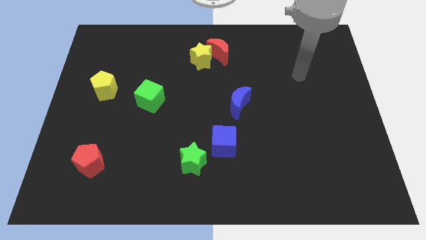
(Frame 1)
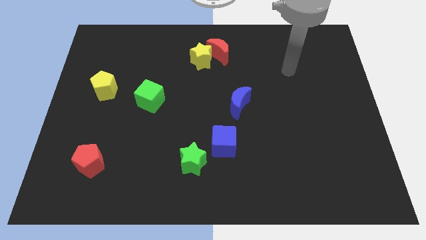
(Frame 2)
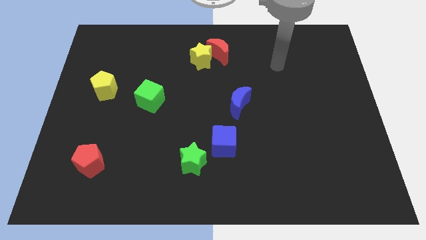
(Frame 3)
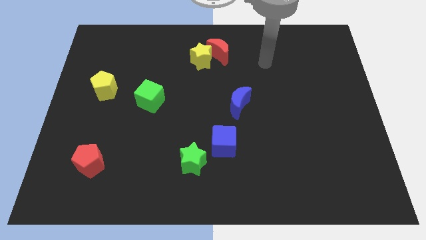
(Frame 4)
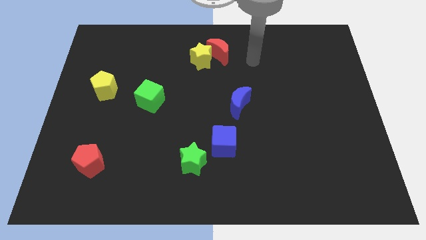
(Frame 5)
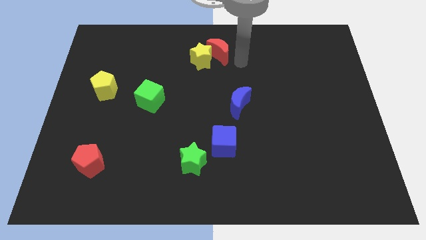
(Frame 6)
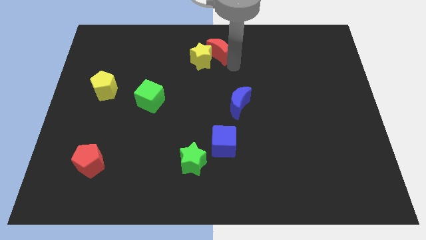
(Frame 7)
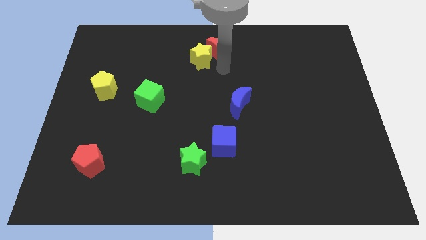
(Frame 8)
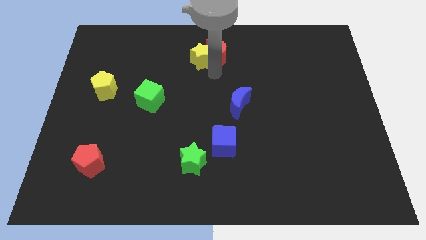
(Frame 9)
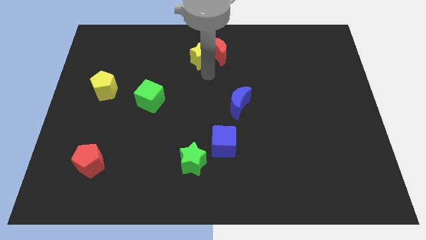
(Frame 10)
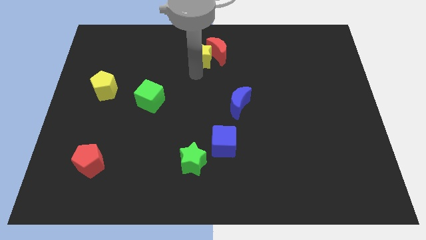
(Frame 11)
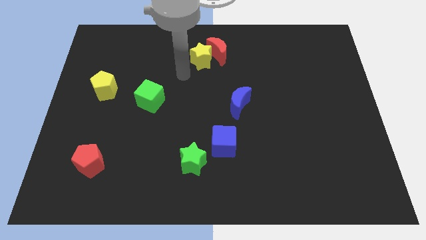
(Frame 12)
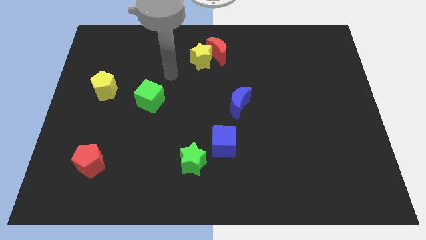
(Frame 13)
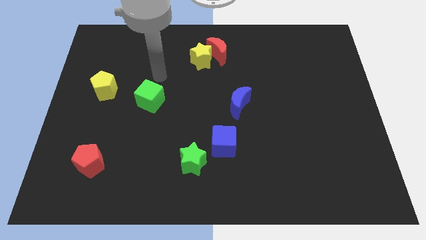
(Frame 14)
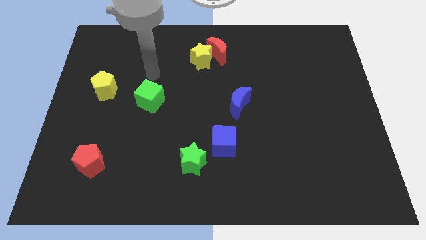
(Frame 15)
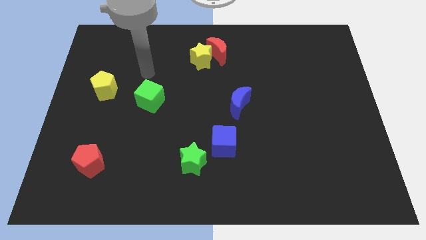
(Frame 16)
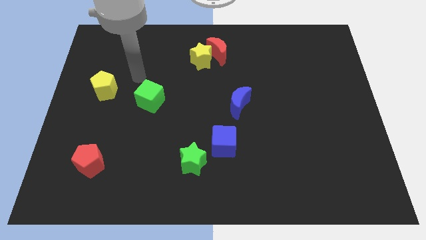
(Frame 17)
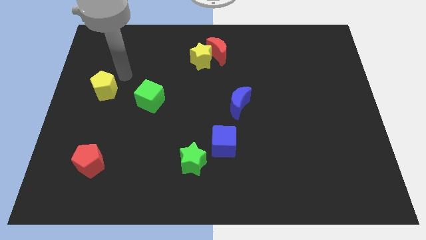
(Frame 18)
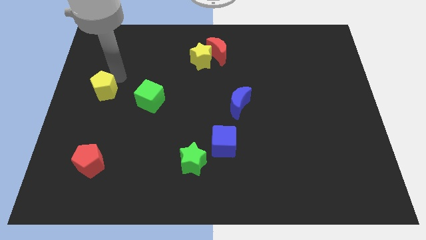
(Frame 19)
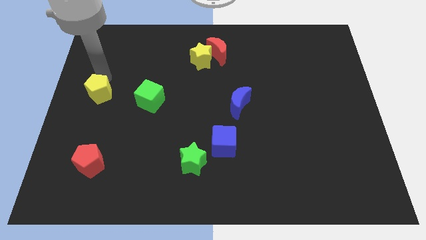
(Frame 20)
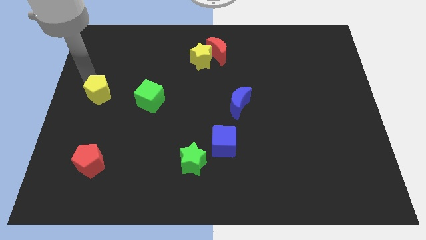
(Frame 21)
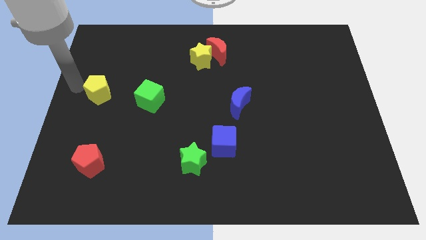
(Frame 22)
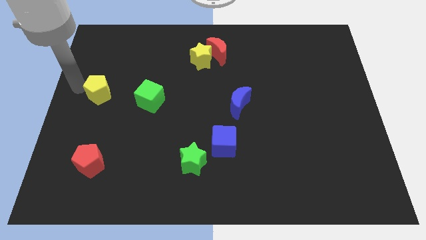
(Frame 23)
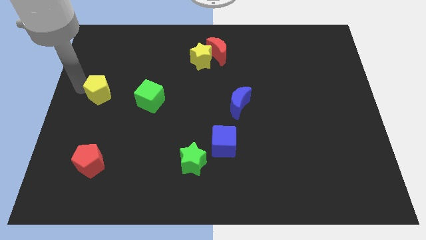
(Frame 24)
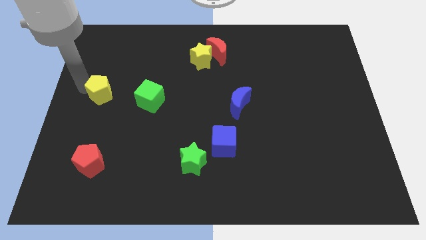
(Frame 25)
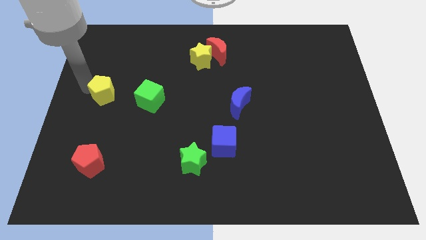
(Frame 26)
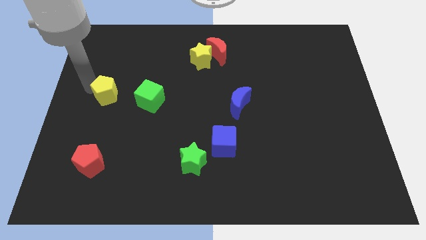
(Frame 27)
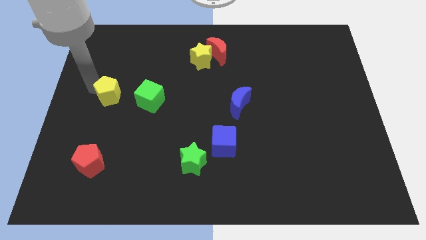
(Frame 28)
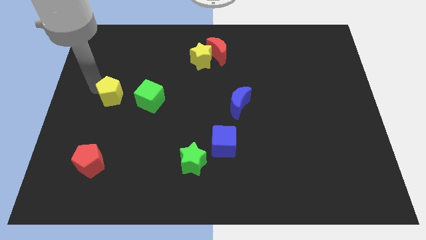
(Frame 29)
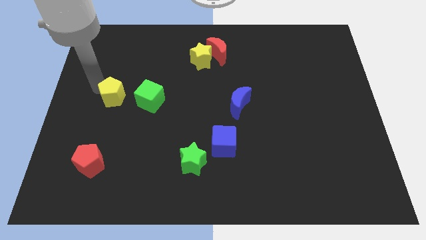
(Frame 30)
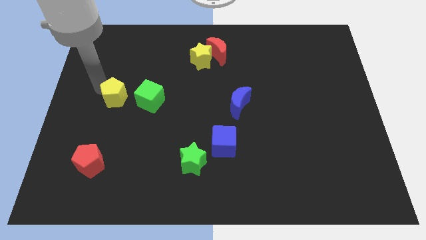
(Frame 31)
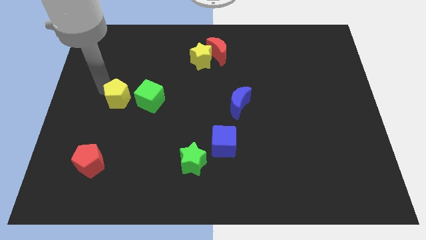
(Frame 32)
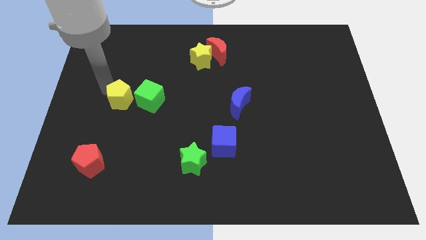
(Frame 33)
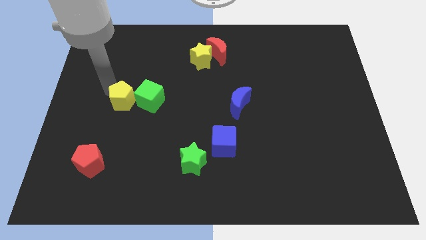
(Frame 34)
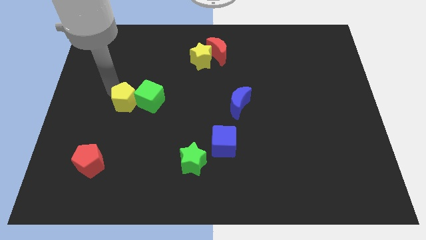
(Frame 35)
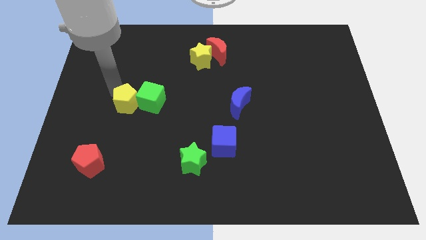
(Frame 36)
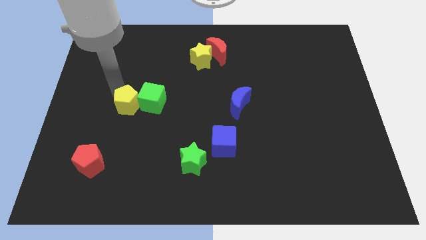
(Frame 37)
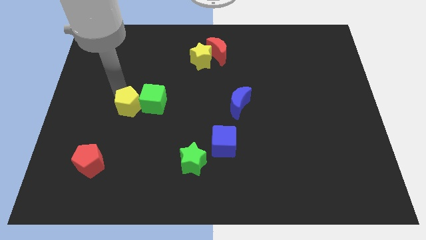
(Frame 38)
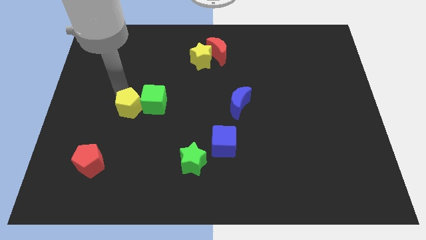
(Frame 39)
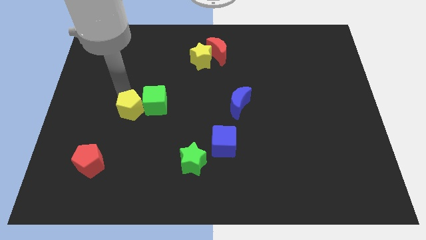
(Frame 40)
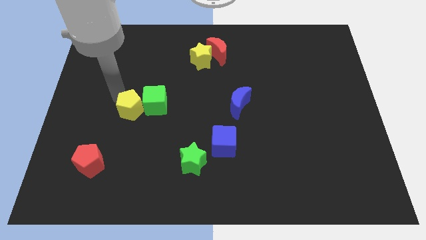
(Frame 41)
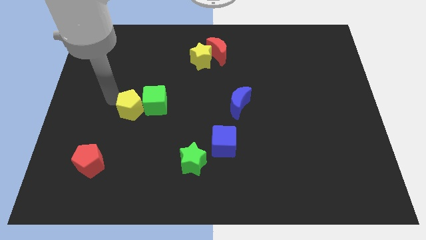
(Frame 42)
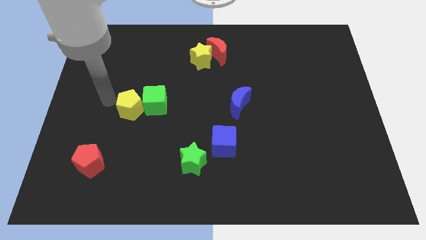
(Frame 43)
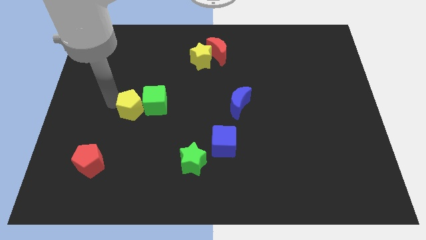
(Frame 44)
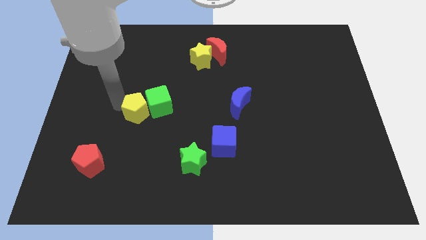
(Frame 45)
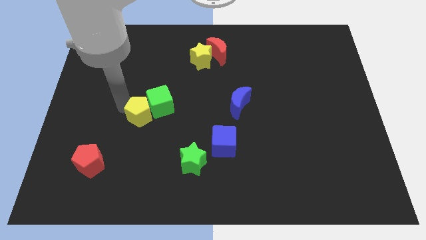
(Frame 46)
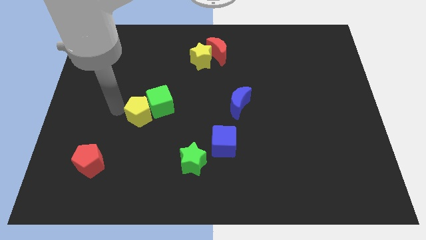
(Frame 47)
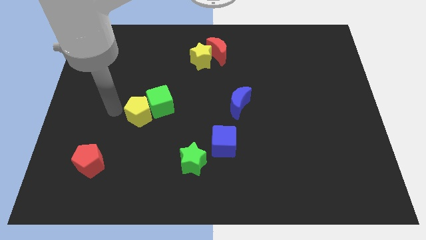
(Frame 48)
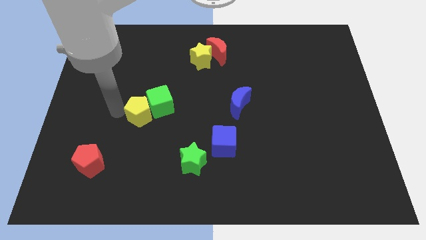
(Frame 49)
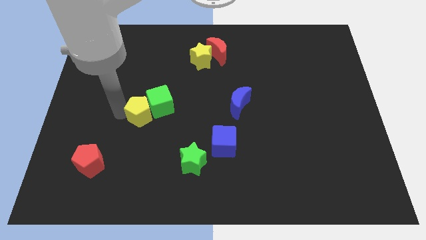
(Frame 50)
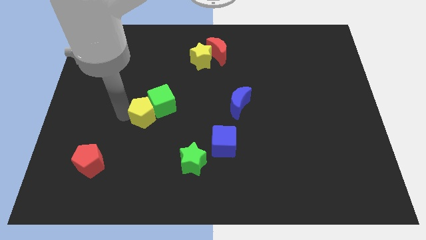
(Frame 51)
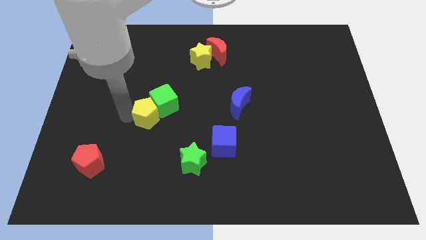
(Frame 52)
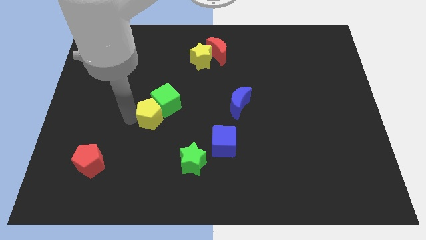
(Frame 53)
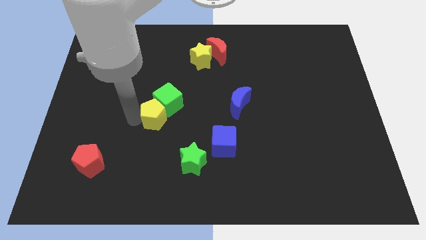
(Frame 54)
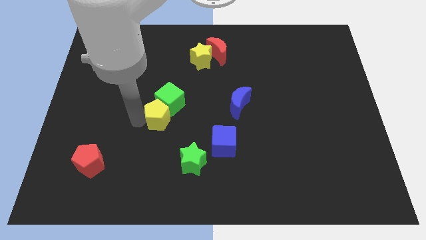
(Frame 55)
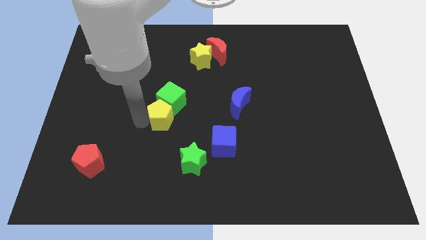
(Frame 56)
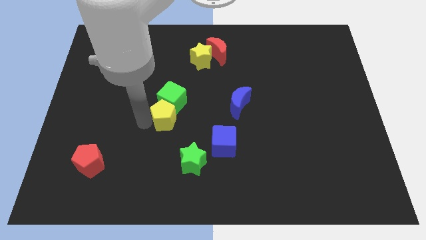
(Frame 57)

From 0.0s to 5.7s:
move the yellow pentagon to the bottom right of the green cube

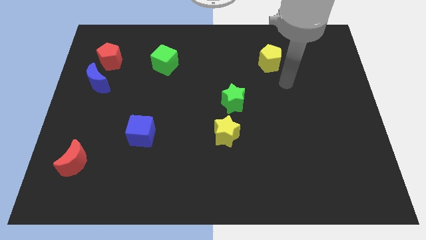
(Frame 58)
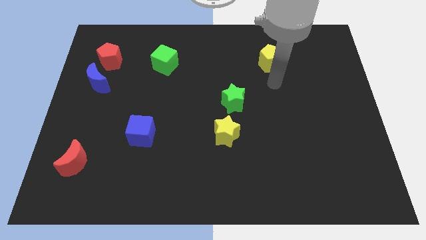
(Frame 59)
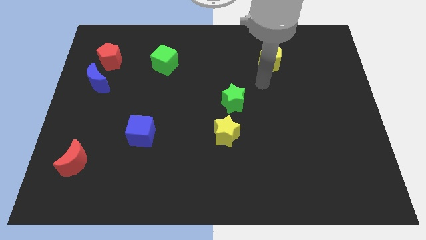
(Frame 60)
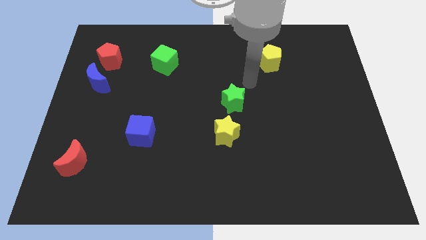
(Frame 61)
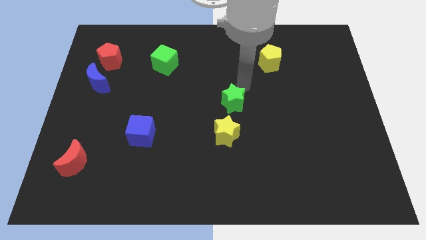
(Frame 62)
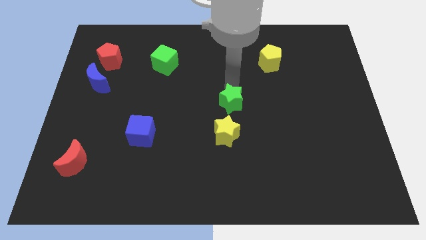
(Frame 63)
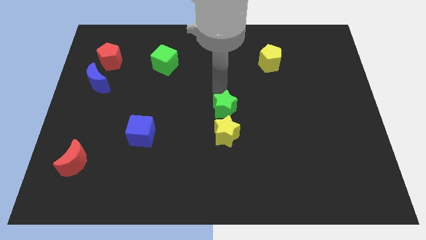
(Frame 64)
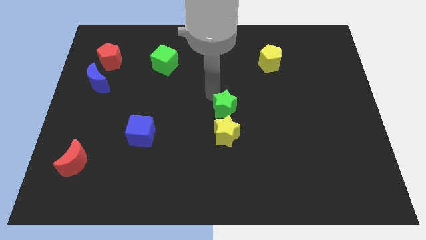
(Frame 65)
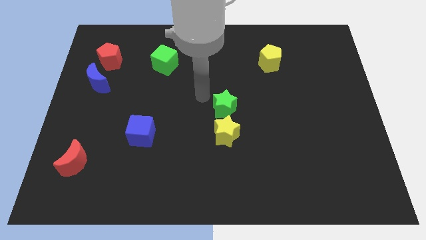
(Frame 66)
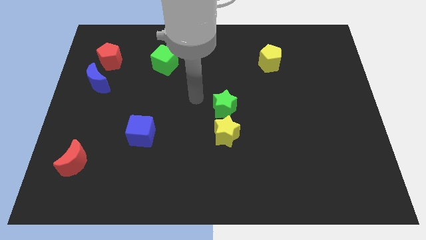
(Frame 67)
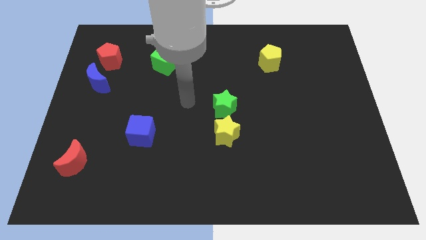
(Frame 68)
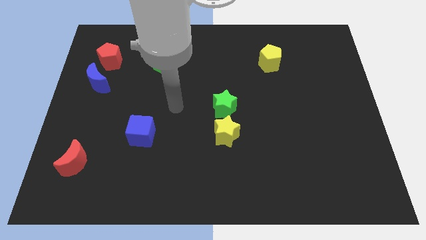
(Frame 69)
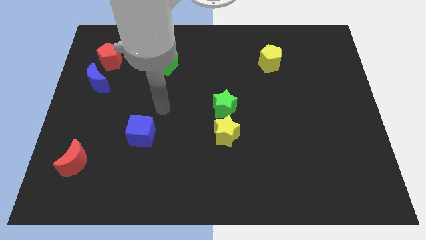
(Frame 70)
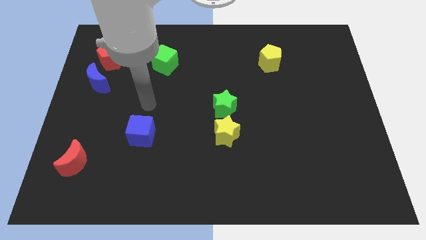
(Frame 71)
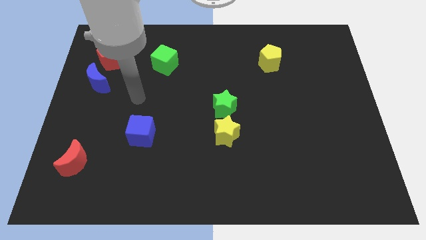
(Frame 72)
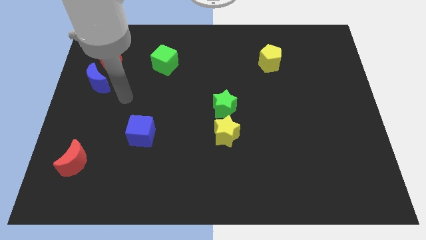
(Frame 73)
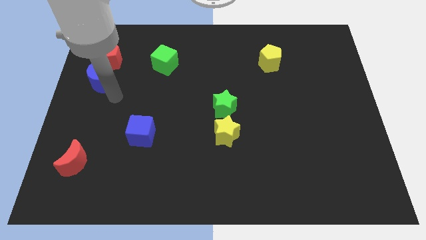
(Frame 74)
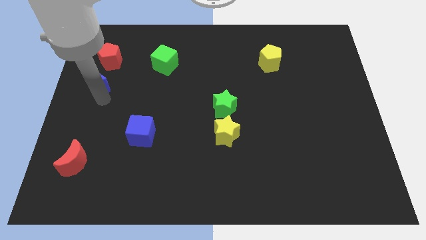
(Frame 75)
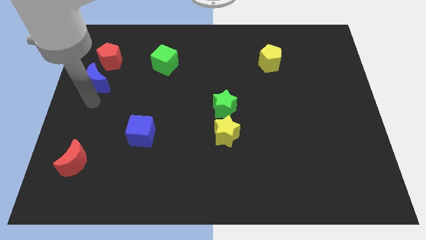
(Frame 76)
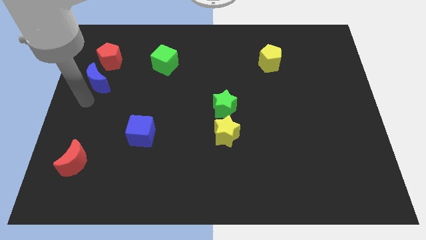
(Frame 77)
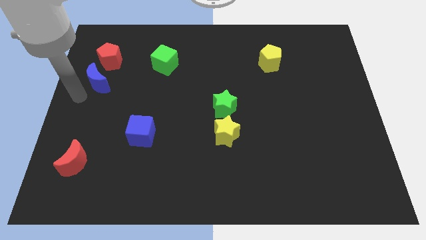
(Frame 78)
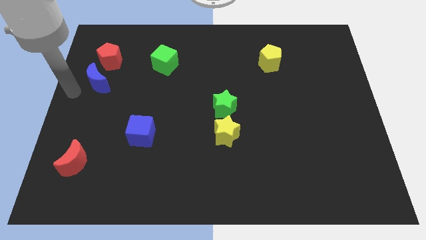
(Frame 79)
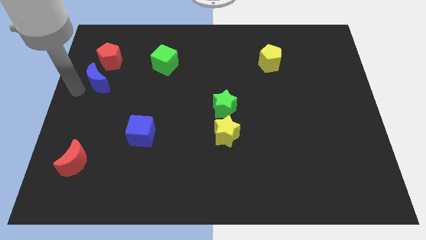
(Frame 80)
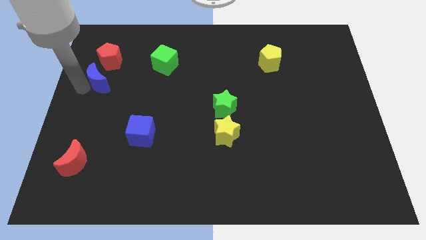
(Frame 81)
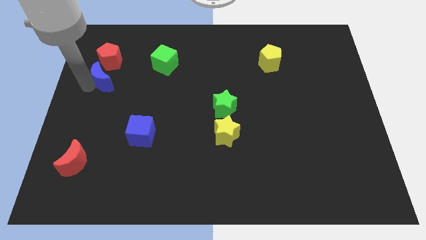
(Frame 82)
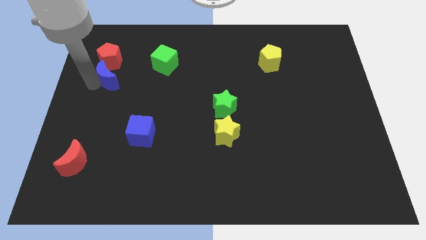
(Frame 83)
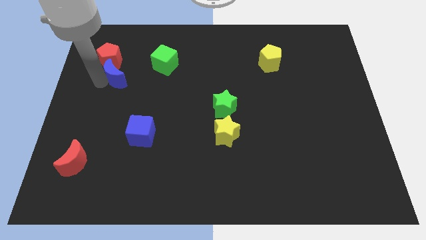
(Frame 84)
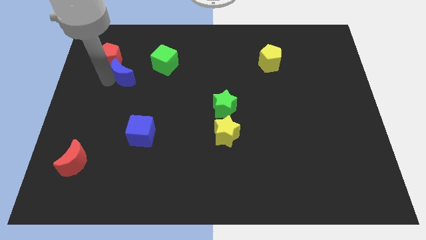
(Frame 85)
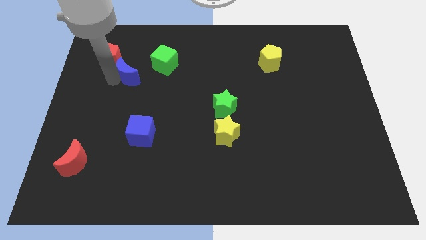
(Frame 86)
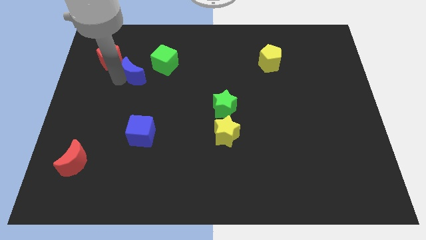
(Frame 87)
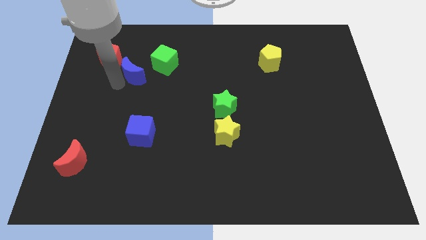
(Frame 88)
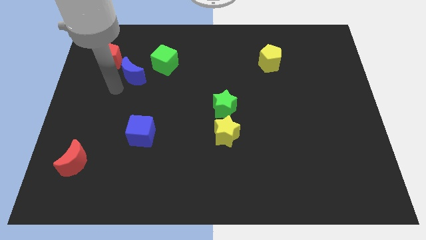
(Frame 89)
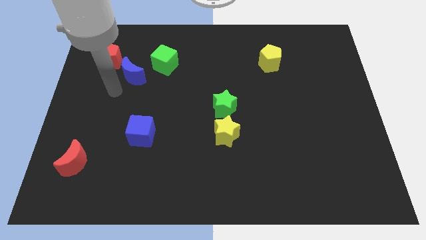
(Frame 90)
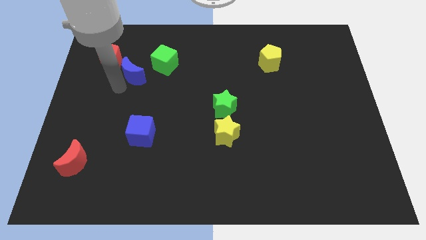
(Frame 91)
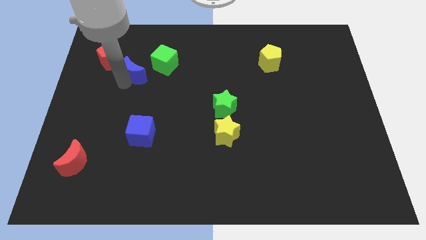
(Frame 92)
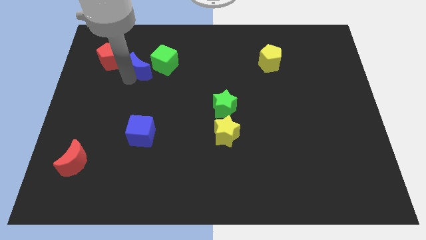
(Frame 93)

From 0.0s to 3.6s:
move the blue moon right of the red pentagon
